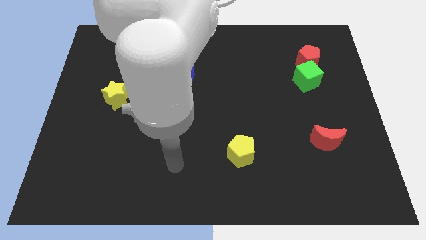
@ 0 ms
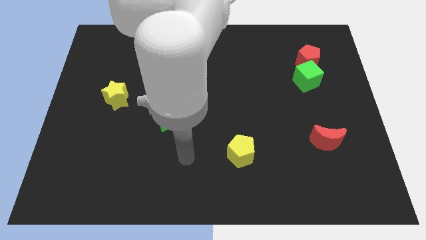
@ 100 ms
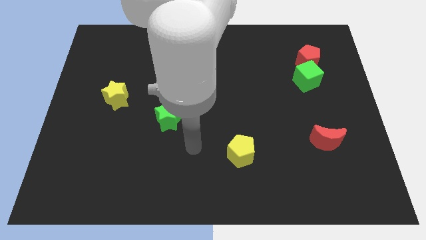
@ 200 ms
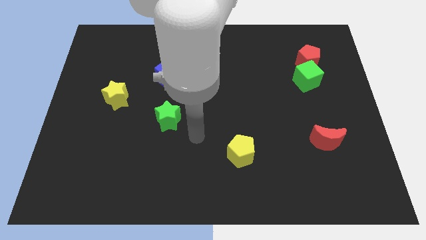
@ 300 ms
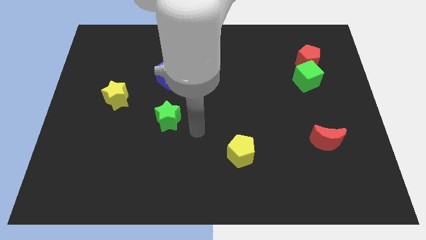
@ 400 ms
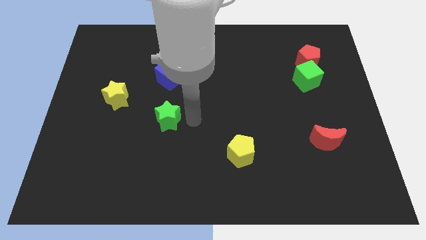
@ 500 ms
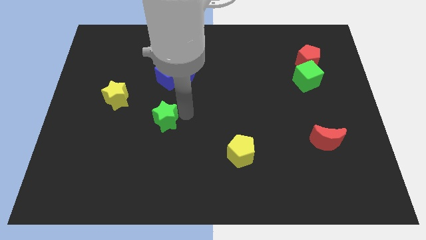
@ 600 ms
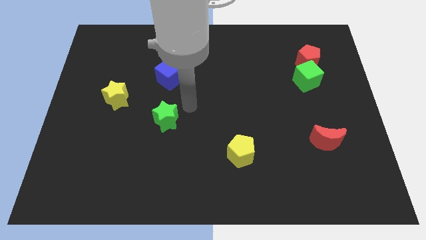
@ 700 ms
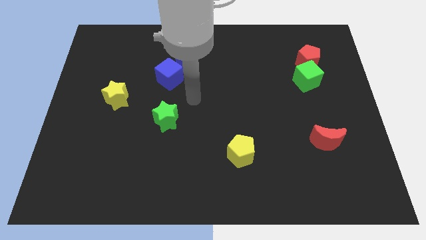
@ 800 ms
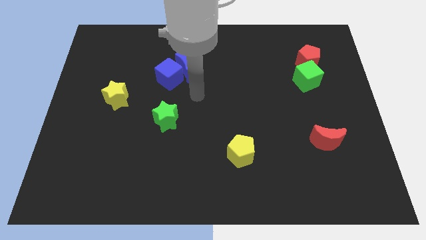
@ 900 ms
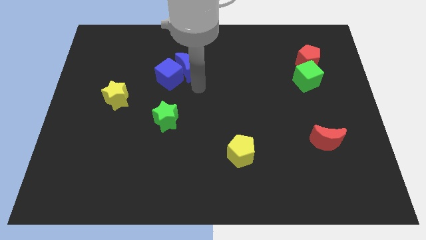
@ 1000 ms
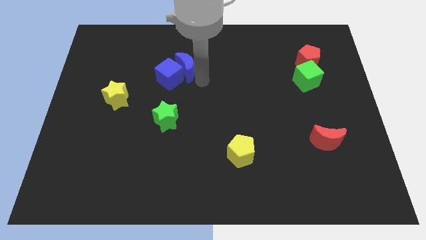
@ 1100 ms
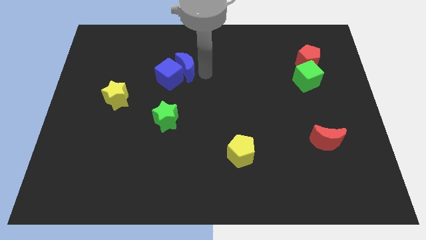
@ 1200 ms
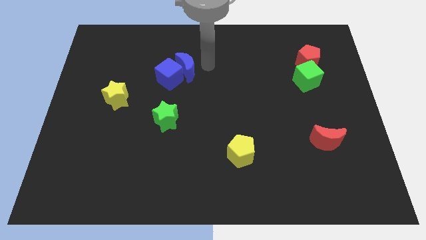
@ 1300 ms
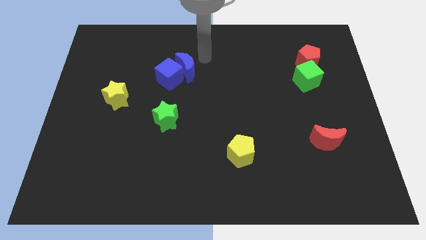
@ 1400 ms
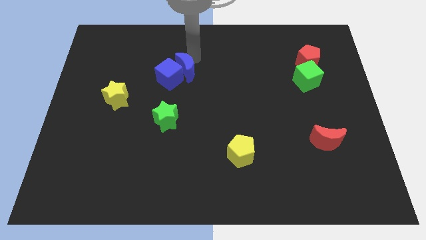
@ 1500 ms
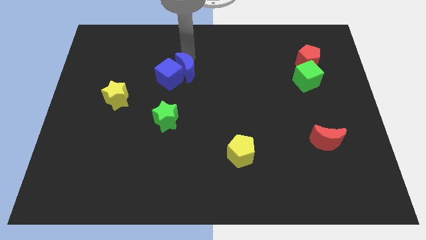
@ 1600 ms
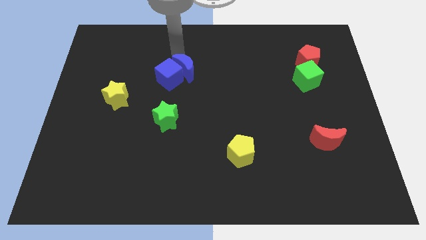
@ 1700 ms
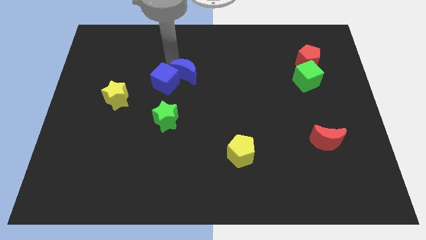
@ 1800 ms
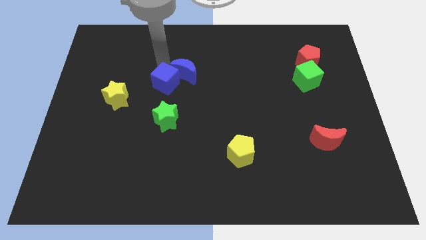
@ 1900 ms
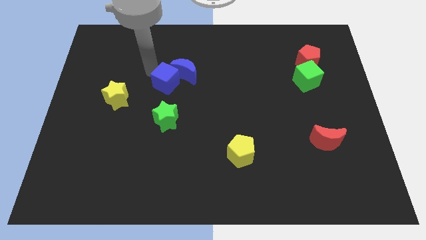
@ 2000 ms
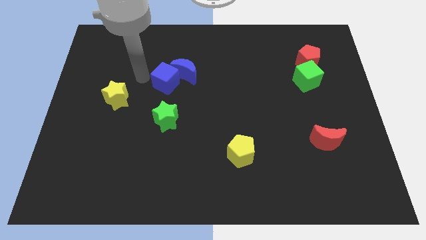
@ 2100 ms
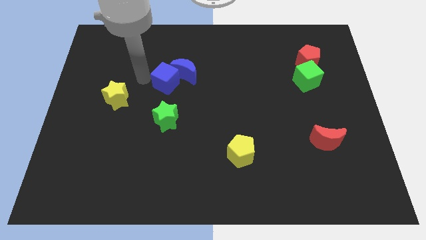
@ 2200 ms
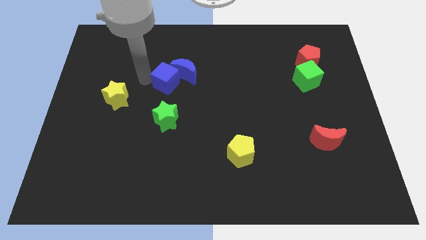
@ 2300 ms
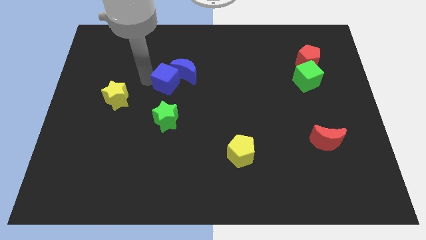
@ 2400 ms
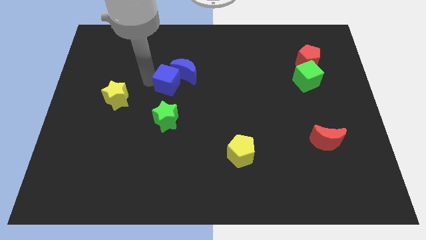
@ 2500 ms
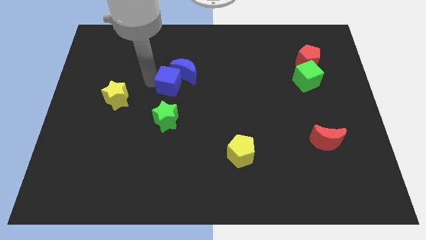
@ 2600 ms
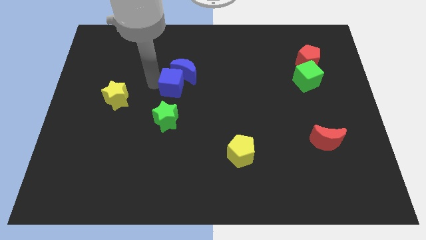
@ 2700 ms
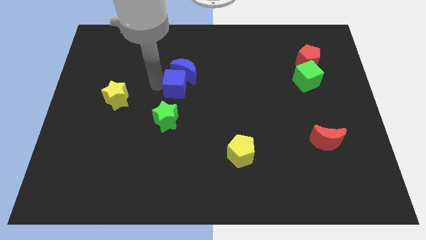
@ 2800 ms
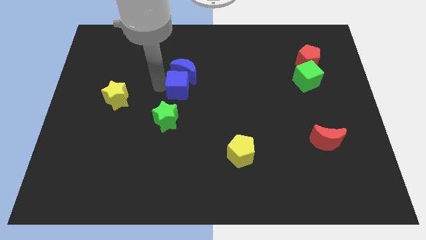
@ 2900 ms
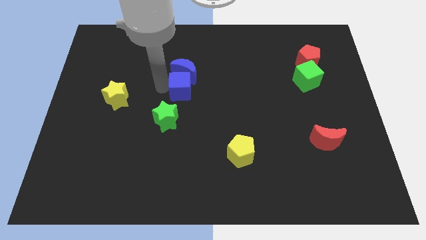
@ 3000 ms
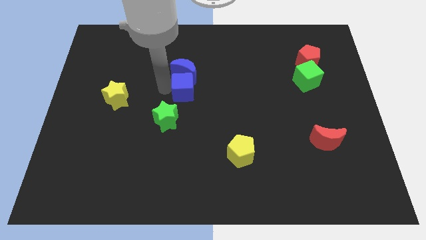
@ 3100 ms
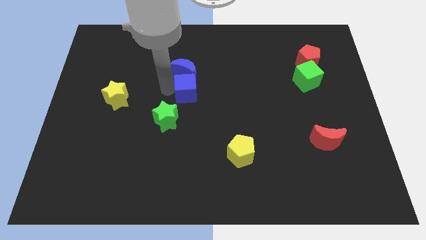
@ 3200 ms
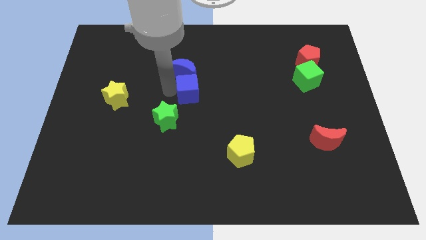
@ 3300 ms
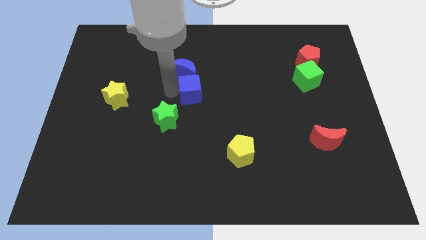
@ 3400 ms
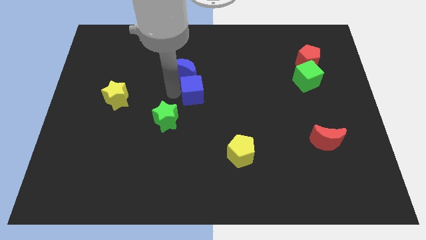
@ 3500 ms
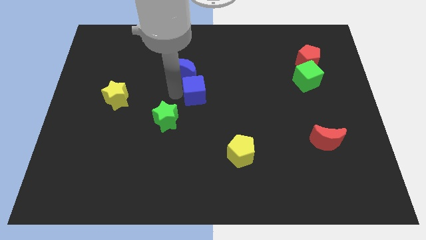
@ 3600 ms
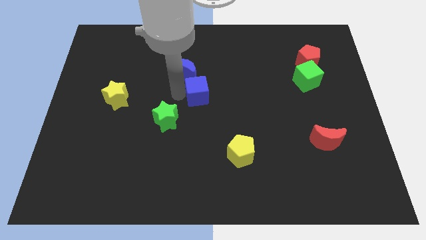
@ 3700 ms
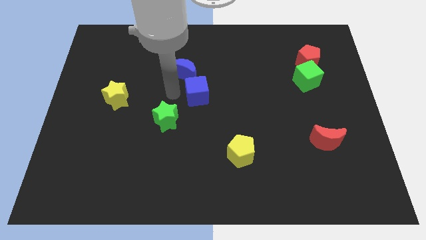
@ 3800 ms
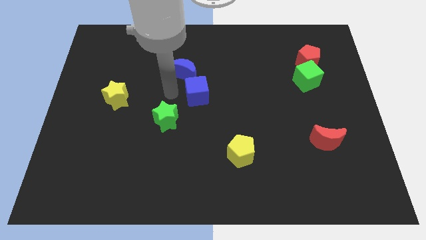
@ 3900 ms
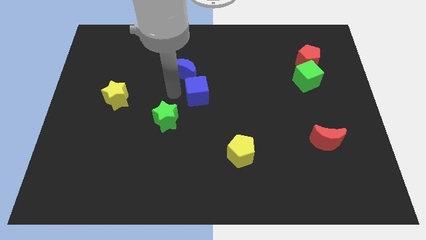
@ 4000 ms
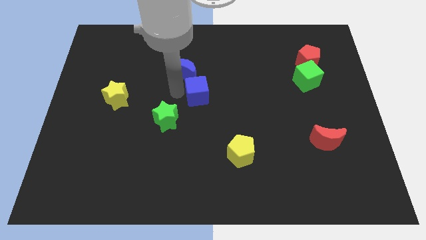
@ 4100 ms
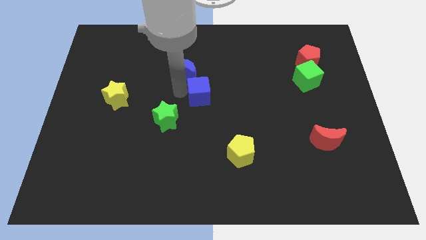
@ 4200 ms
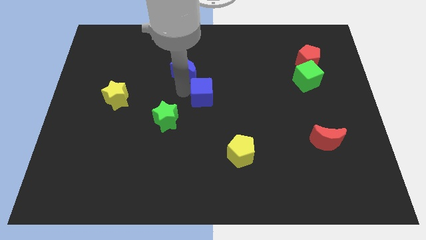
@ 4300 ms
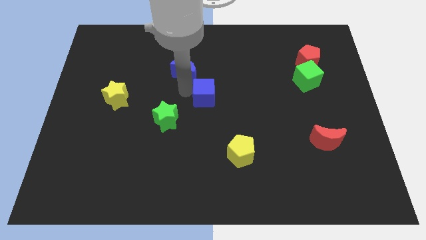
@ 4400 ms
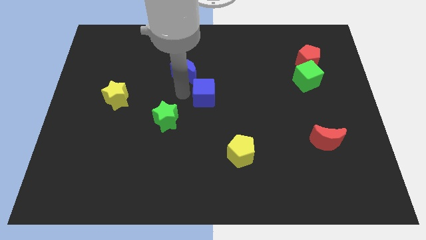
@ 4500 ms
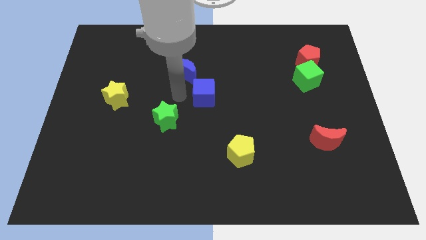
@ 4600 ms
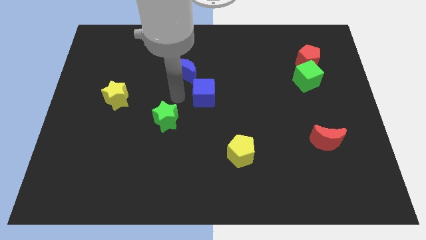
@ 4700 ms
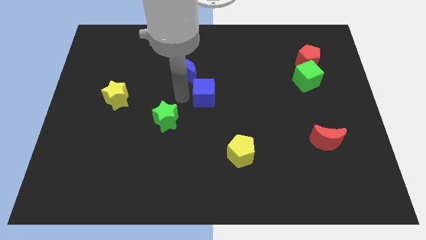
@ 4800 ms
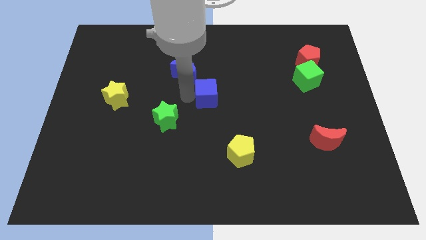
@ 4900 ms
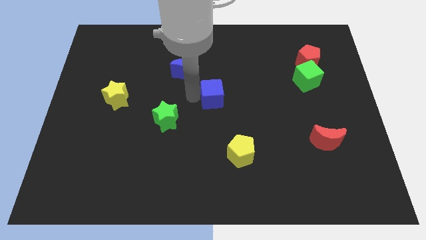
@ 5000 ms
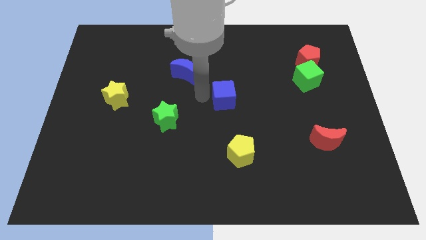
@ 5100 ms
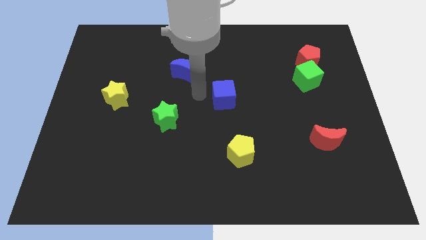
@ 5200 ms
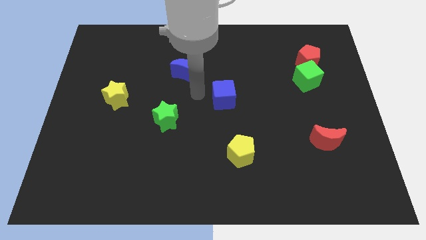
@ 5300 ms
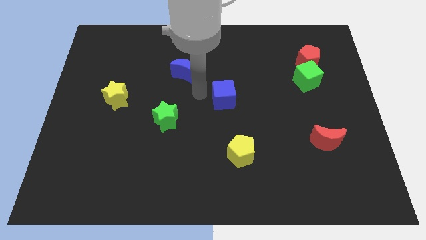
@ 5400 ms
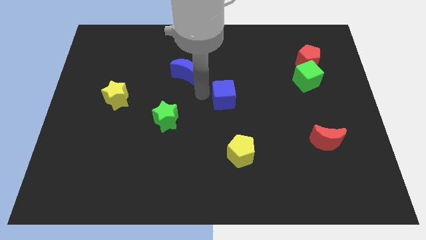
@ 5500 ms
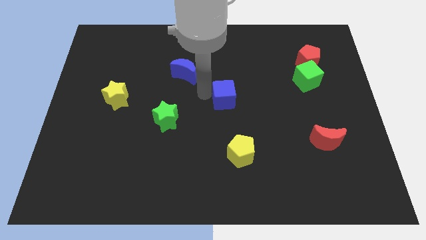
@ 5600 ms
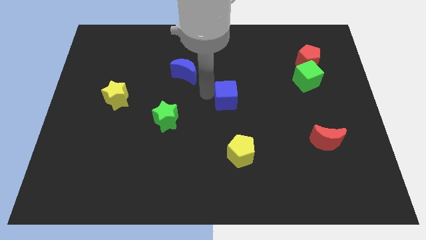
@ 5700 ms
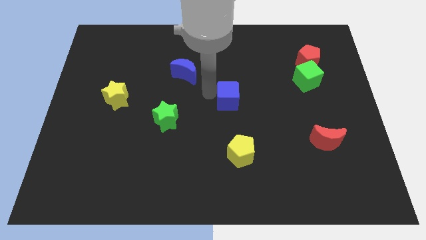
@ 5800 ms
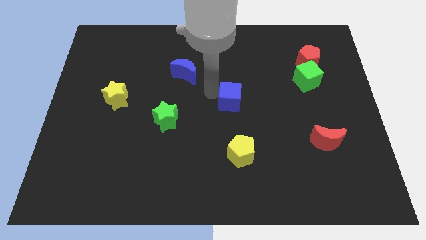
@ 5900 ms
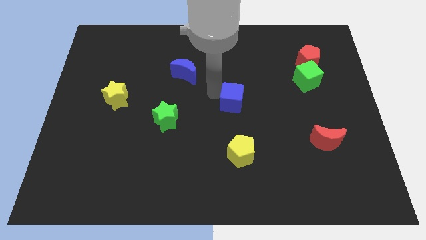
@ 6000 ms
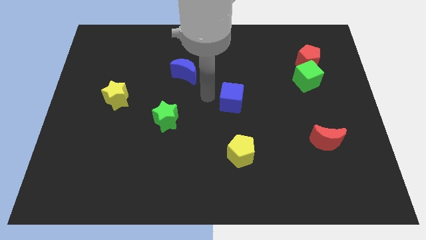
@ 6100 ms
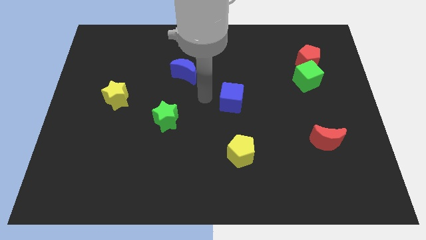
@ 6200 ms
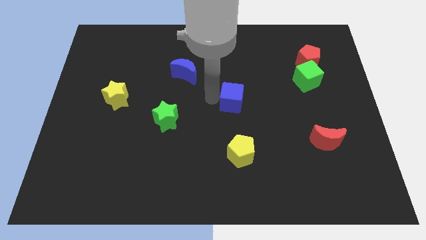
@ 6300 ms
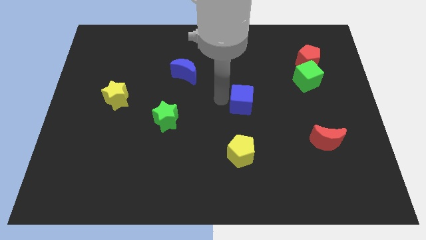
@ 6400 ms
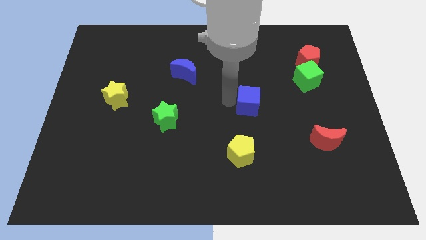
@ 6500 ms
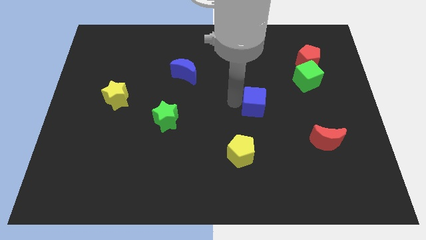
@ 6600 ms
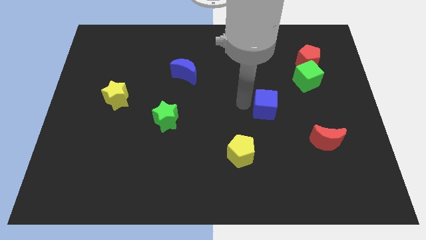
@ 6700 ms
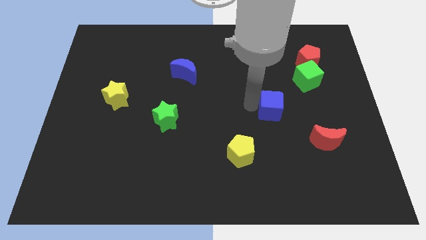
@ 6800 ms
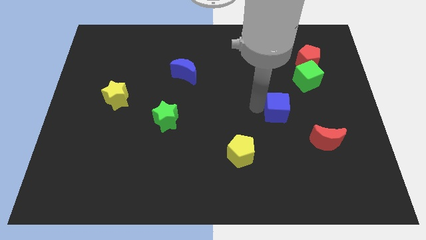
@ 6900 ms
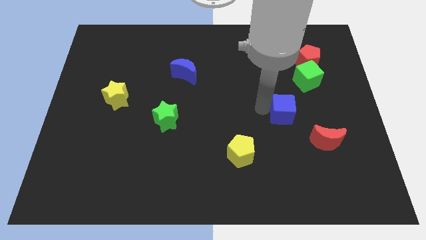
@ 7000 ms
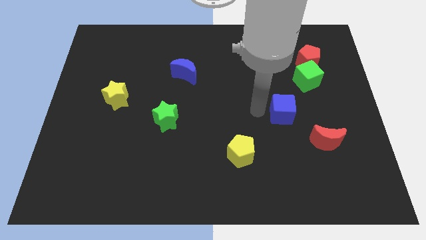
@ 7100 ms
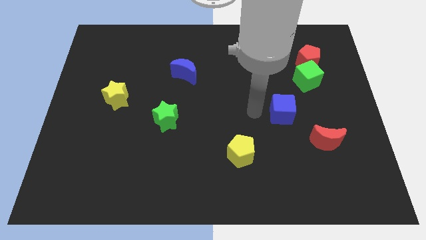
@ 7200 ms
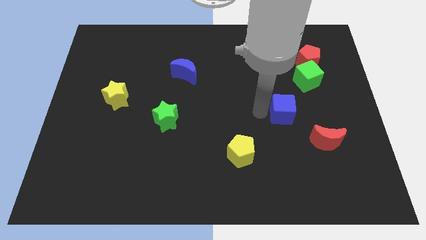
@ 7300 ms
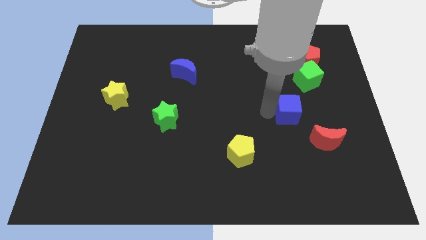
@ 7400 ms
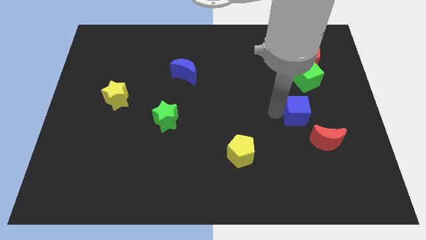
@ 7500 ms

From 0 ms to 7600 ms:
push the blue cube below the green cube
